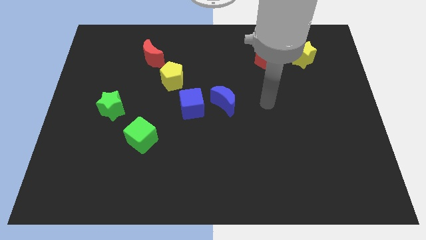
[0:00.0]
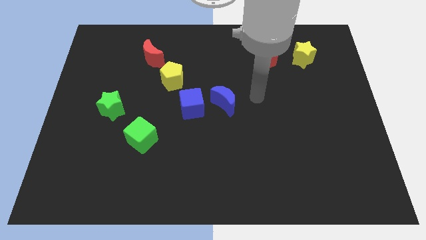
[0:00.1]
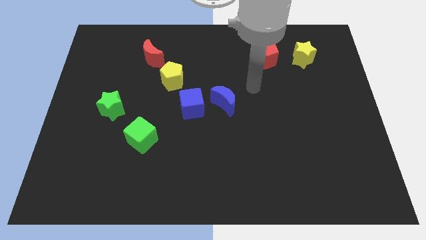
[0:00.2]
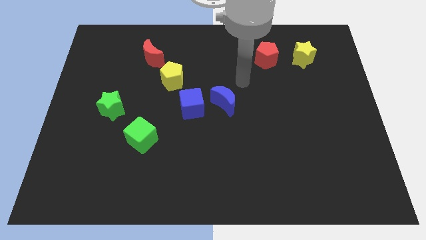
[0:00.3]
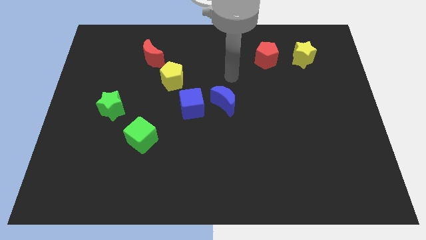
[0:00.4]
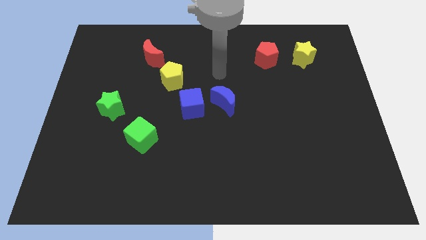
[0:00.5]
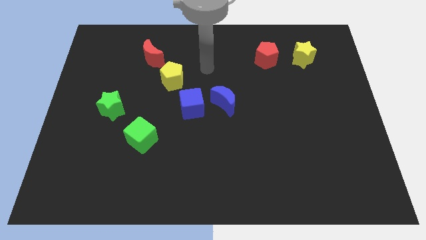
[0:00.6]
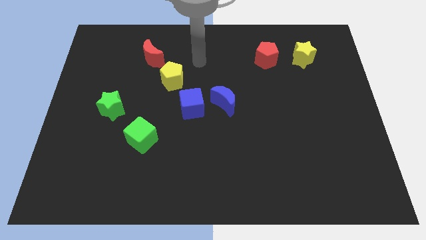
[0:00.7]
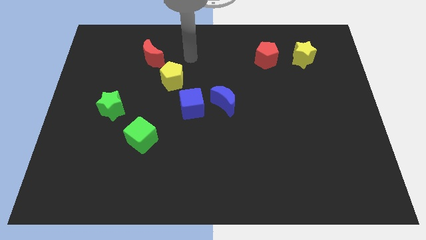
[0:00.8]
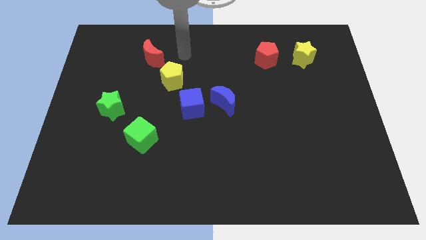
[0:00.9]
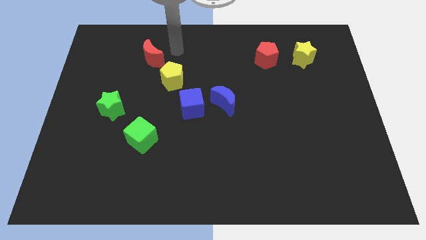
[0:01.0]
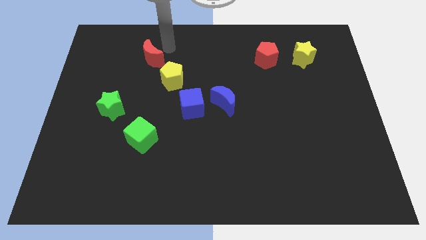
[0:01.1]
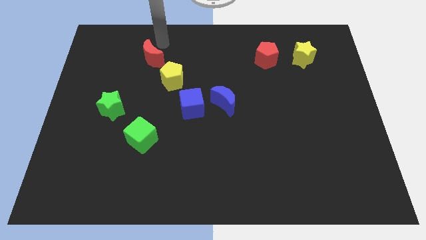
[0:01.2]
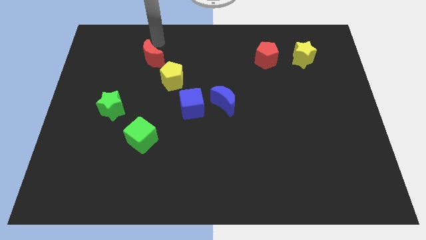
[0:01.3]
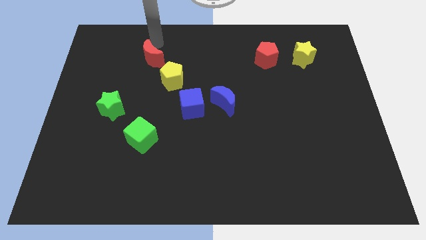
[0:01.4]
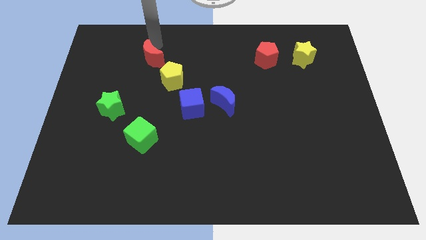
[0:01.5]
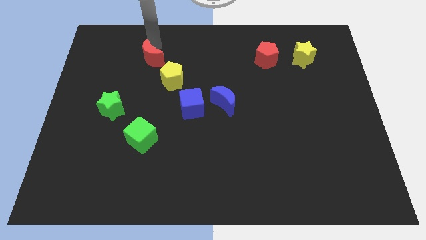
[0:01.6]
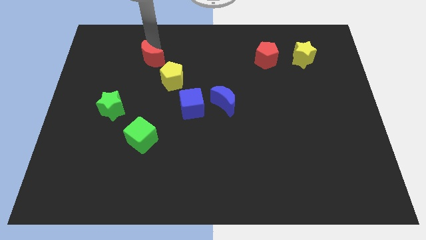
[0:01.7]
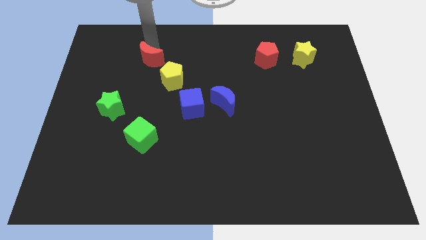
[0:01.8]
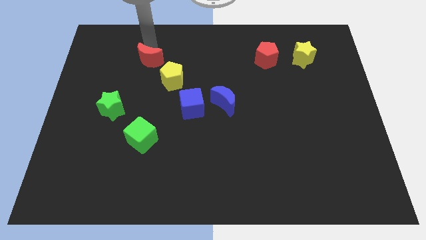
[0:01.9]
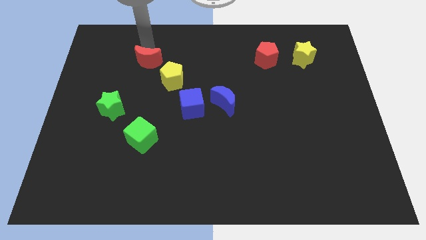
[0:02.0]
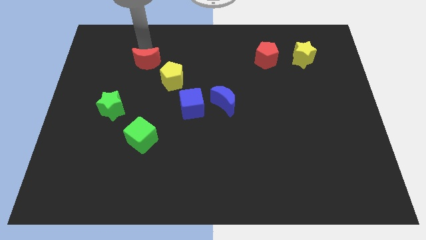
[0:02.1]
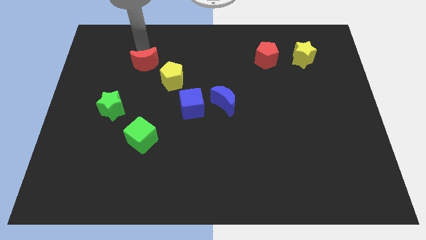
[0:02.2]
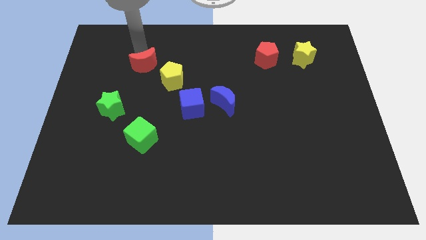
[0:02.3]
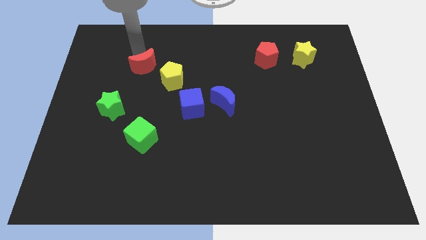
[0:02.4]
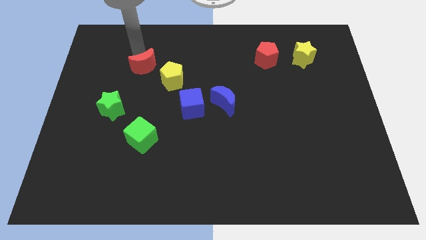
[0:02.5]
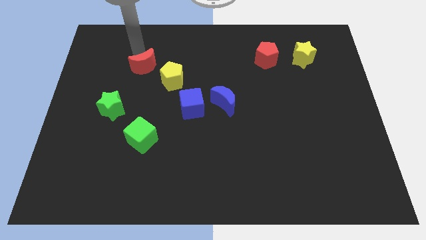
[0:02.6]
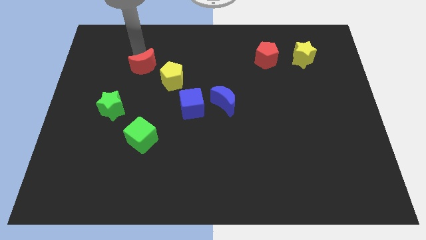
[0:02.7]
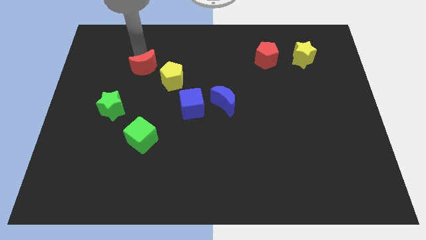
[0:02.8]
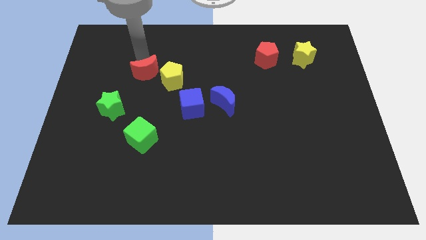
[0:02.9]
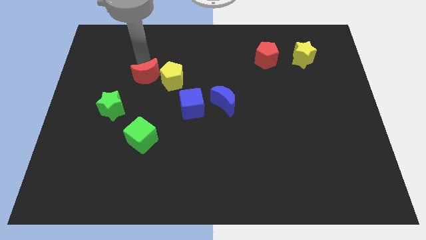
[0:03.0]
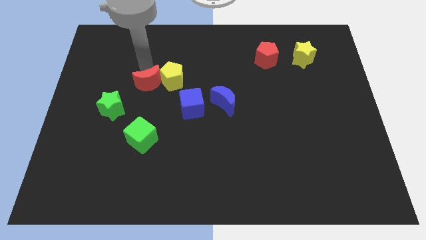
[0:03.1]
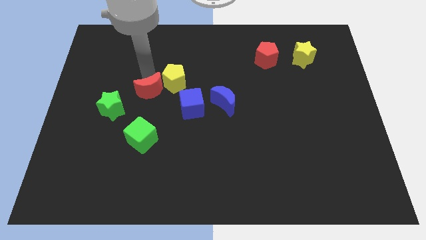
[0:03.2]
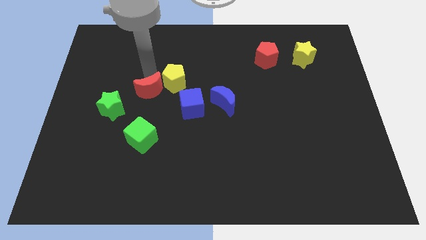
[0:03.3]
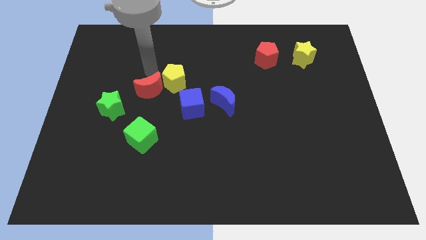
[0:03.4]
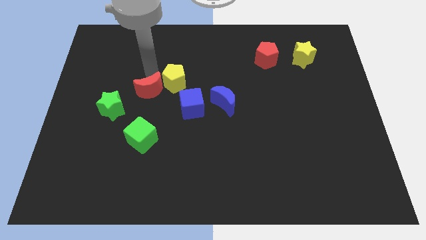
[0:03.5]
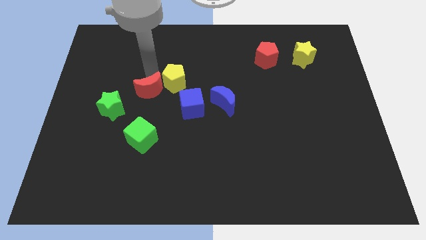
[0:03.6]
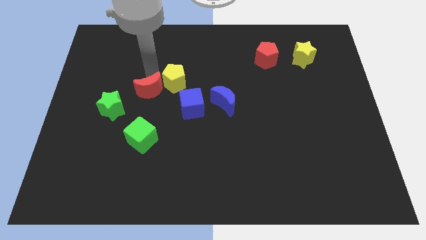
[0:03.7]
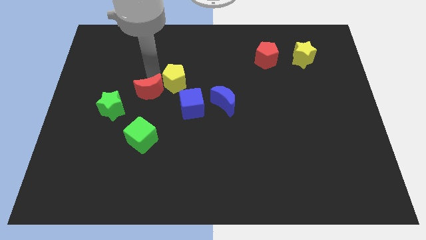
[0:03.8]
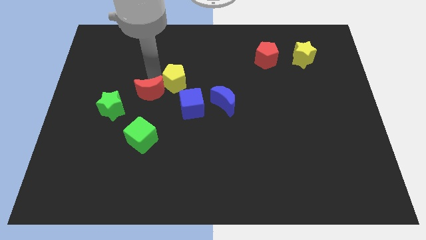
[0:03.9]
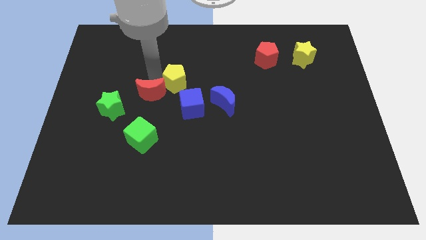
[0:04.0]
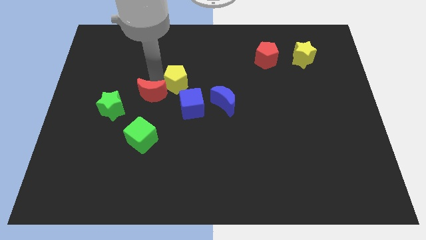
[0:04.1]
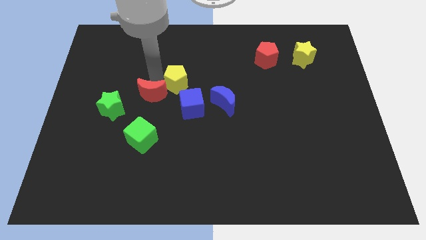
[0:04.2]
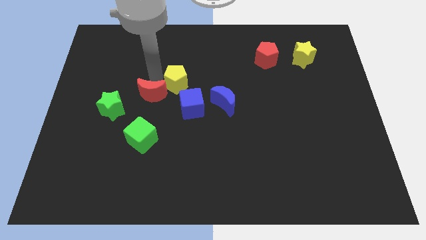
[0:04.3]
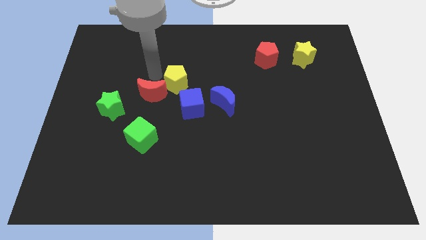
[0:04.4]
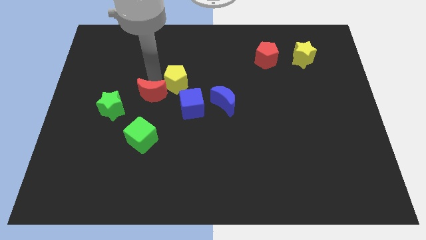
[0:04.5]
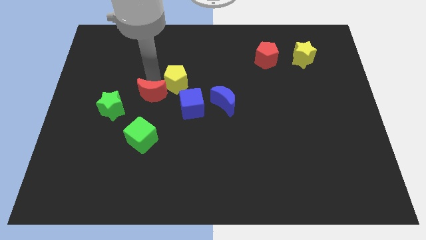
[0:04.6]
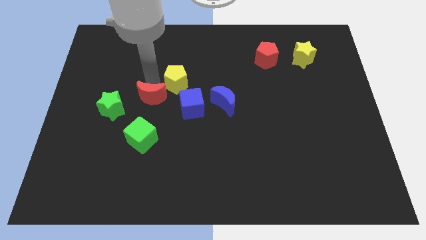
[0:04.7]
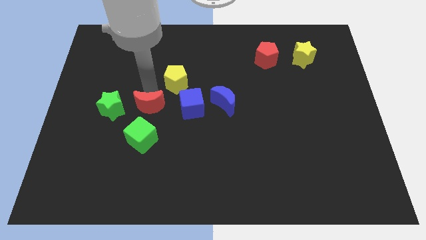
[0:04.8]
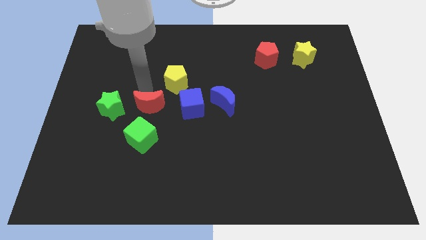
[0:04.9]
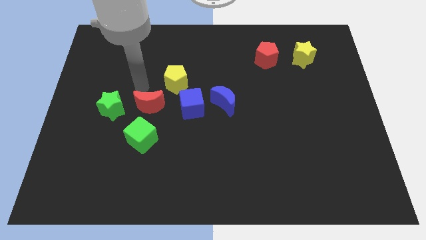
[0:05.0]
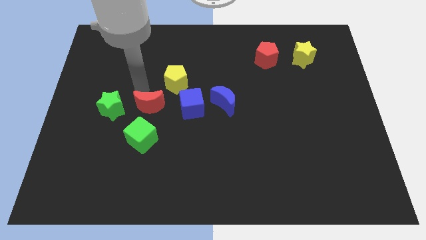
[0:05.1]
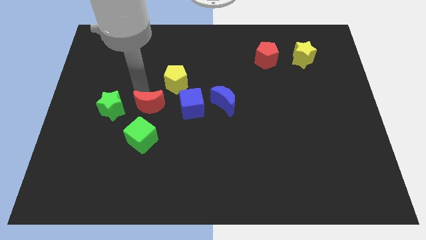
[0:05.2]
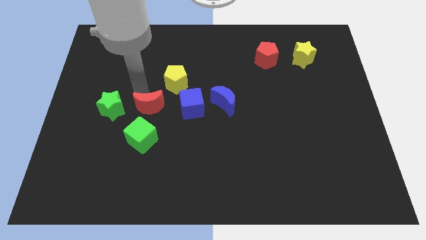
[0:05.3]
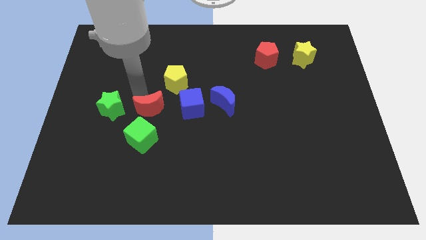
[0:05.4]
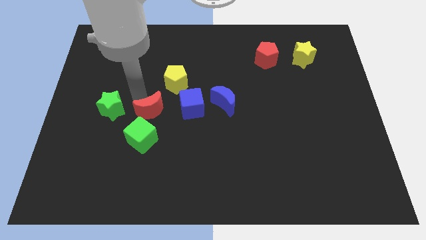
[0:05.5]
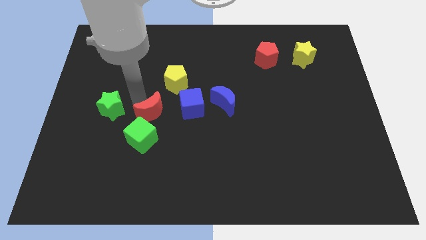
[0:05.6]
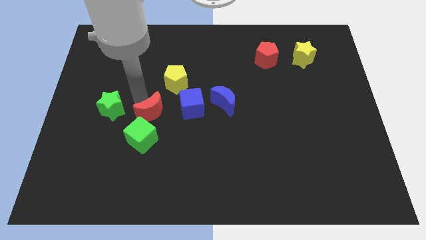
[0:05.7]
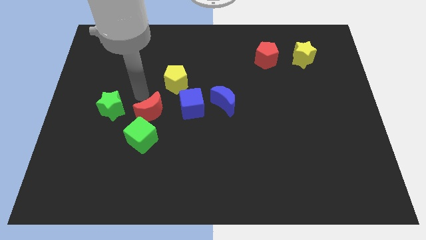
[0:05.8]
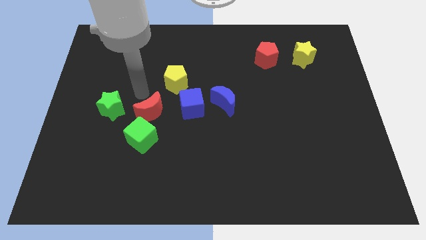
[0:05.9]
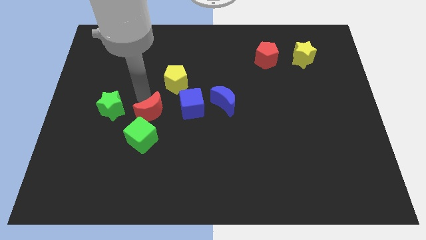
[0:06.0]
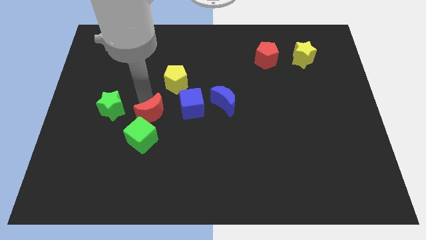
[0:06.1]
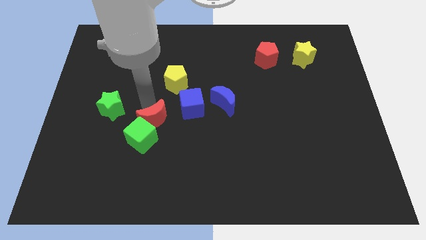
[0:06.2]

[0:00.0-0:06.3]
push the red moon downwards

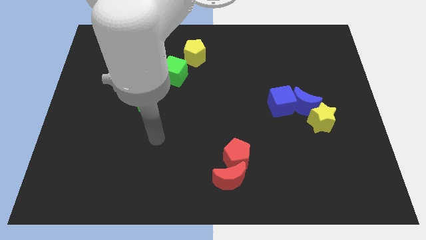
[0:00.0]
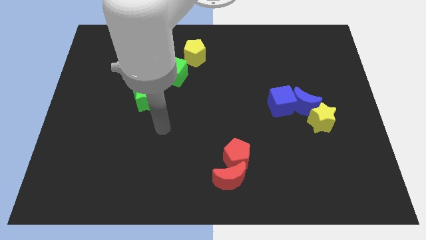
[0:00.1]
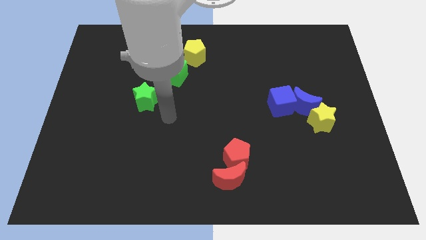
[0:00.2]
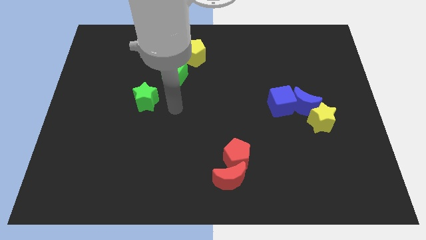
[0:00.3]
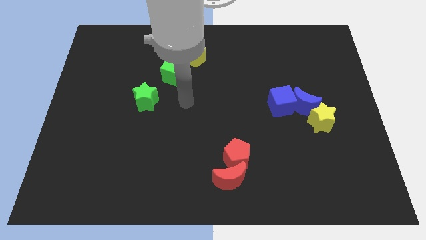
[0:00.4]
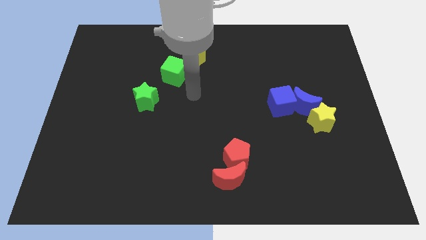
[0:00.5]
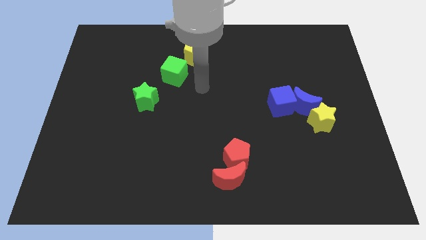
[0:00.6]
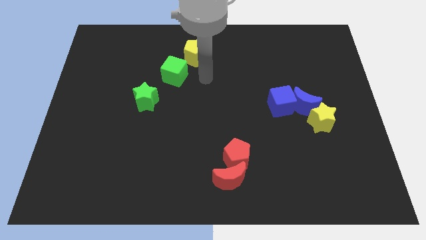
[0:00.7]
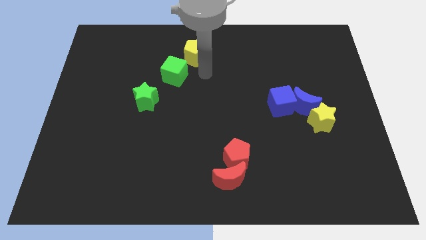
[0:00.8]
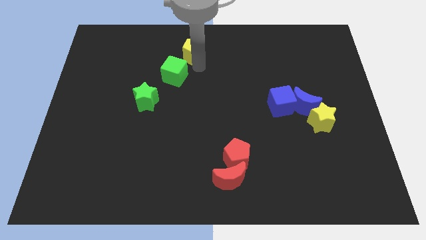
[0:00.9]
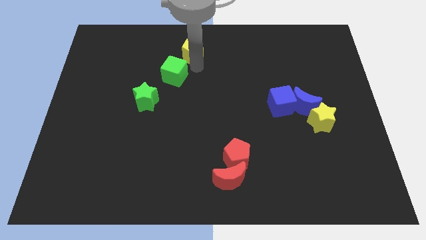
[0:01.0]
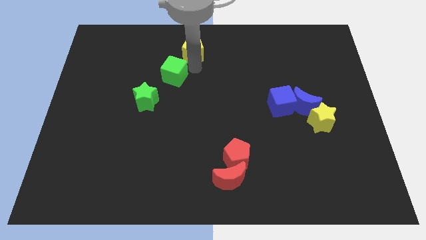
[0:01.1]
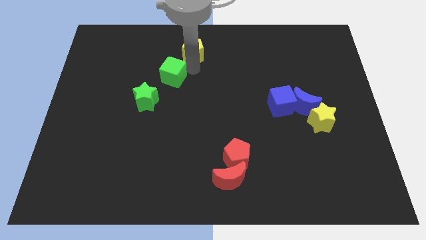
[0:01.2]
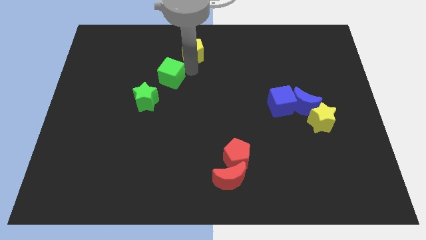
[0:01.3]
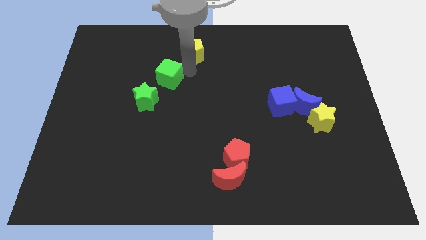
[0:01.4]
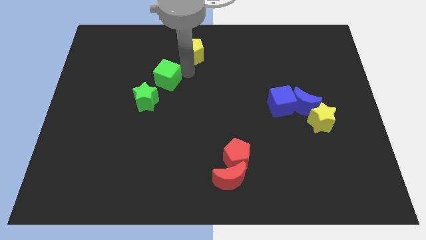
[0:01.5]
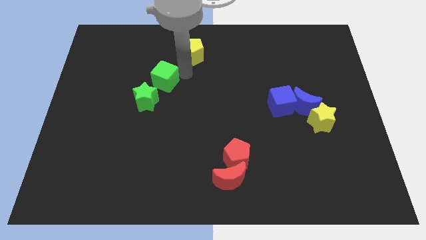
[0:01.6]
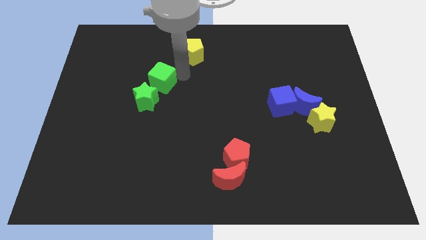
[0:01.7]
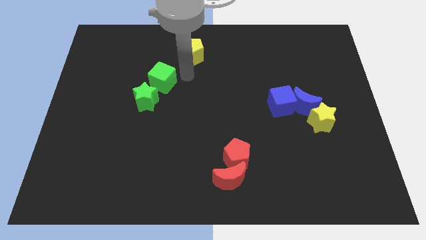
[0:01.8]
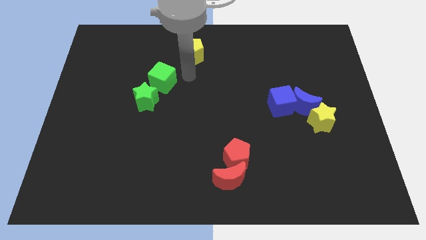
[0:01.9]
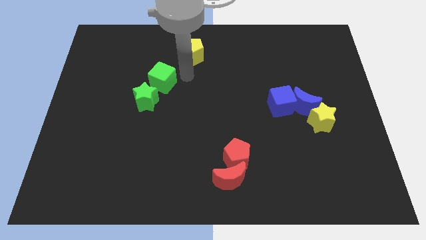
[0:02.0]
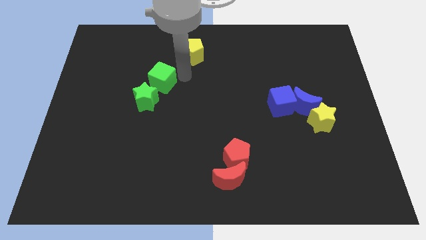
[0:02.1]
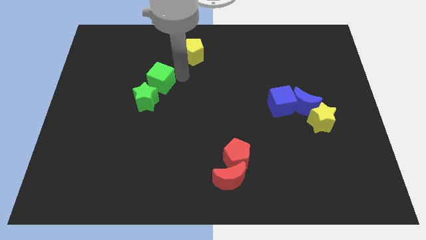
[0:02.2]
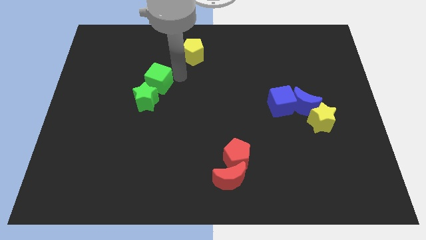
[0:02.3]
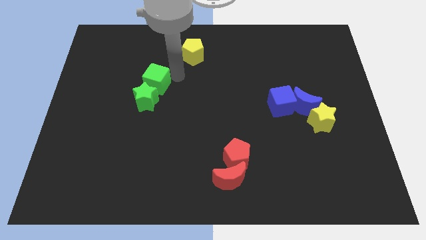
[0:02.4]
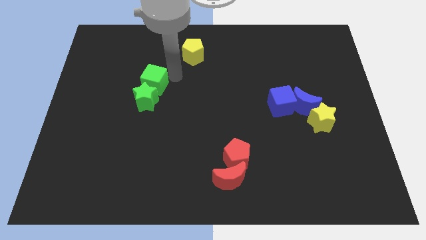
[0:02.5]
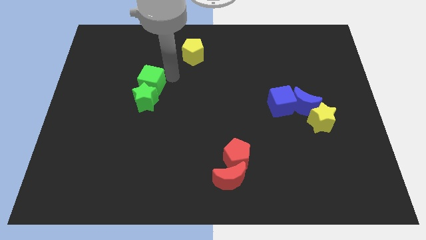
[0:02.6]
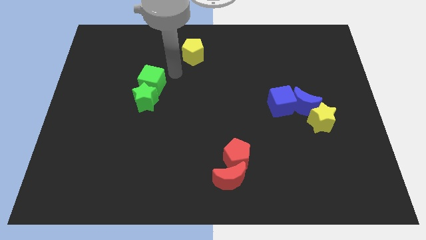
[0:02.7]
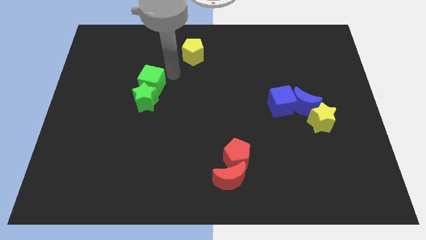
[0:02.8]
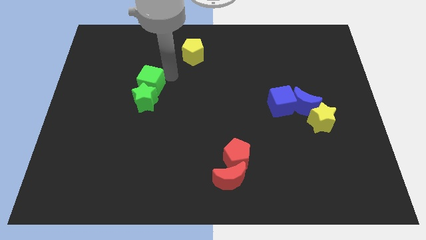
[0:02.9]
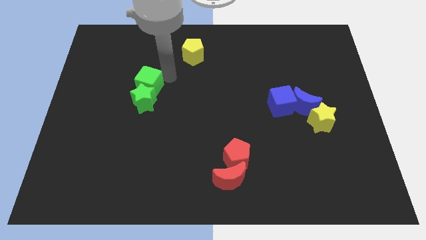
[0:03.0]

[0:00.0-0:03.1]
slightly push the green cube downwards and then left
